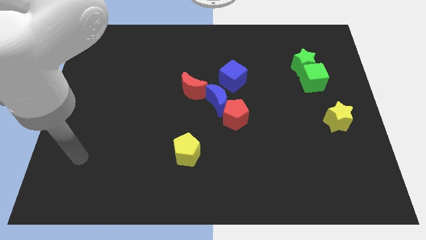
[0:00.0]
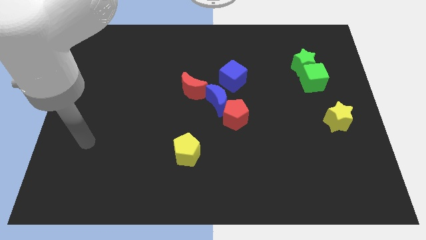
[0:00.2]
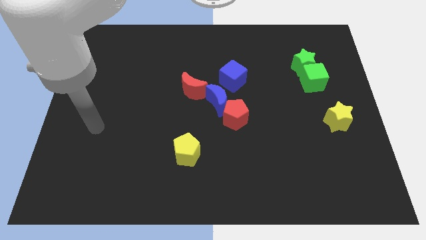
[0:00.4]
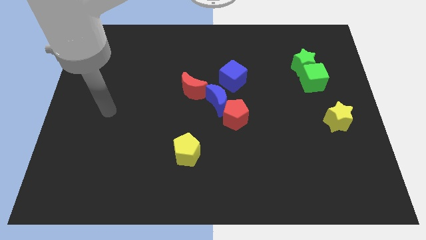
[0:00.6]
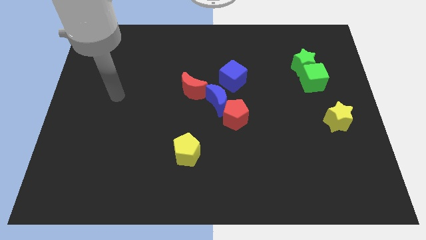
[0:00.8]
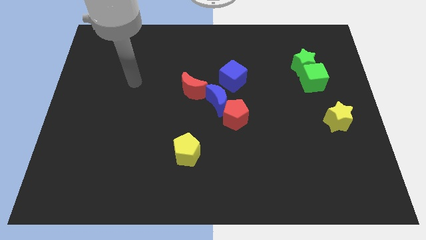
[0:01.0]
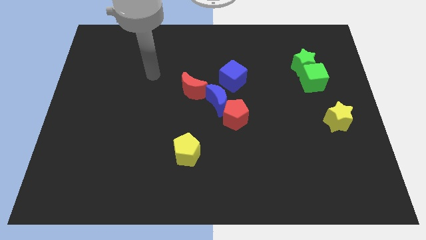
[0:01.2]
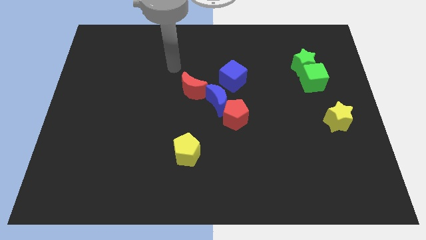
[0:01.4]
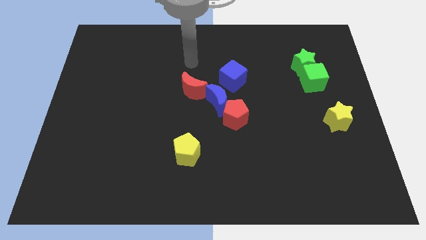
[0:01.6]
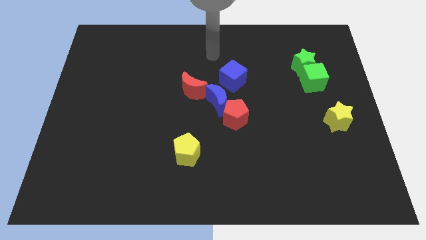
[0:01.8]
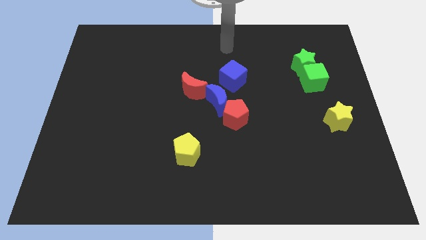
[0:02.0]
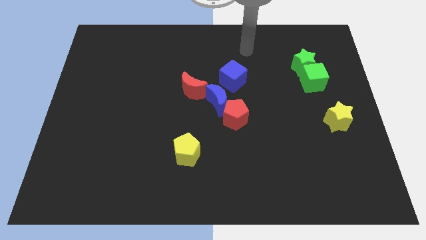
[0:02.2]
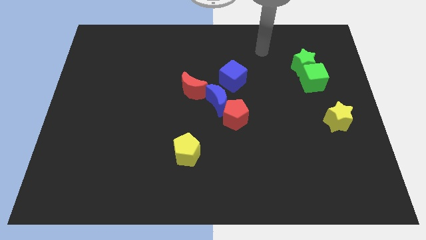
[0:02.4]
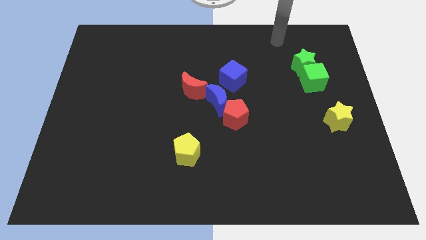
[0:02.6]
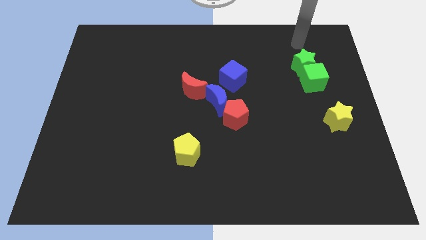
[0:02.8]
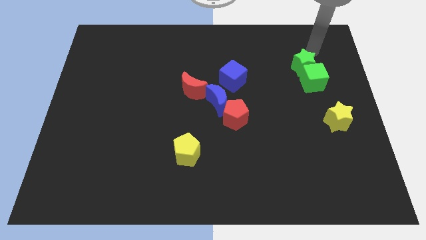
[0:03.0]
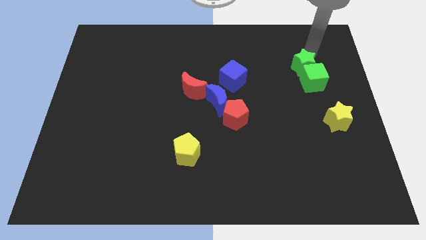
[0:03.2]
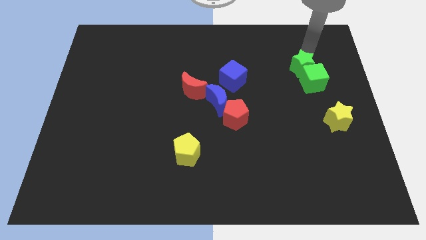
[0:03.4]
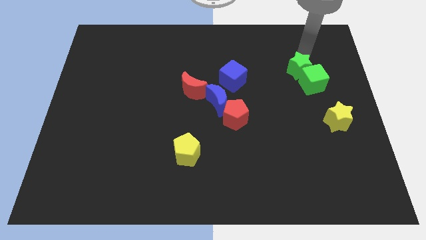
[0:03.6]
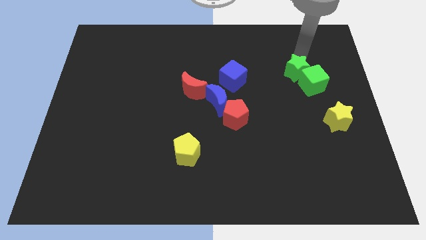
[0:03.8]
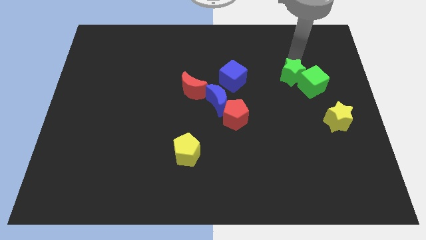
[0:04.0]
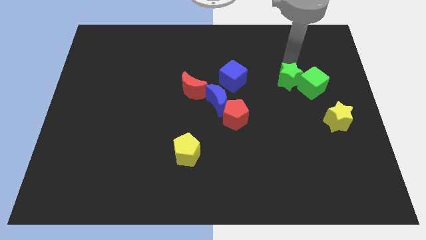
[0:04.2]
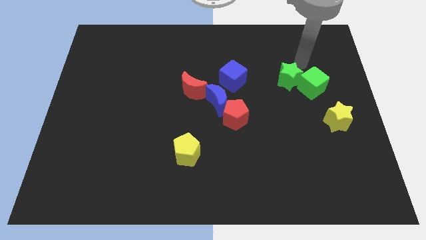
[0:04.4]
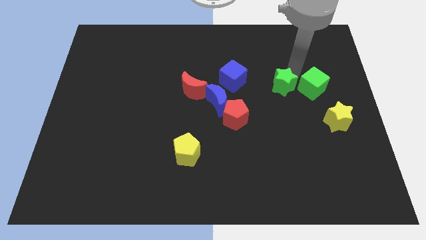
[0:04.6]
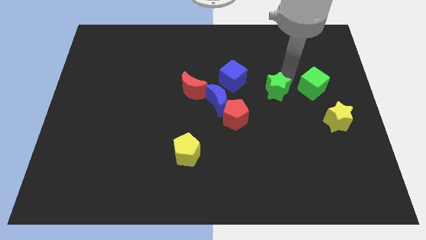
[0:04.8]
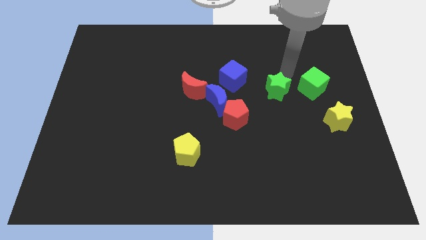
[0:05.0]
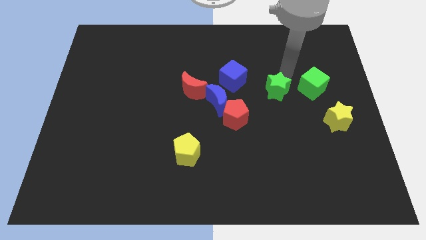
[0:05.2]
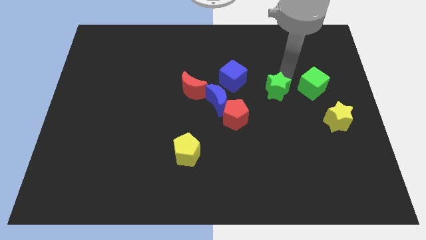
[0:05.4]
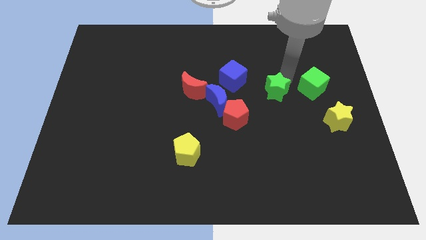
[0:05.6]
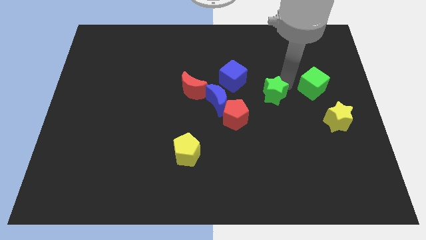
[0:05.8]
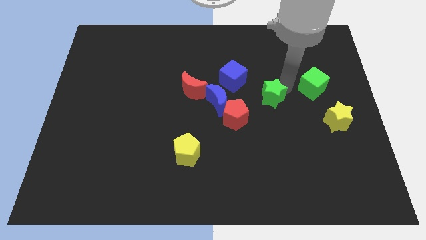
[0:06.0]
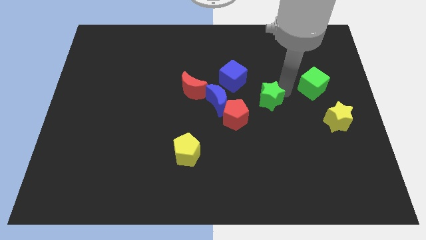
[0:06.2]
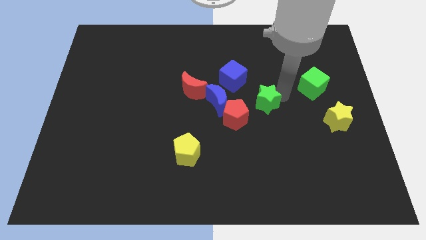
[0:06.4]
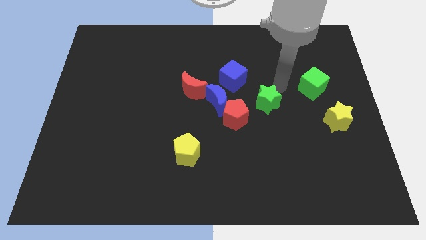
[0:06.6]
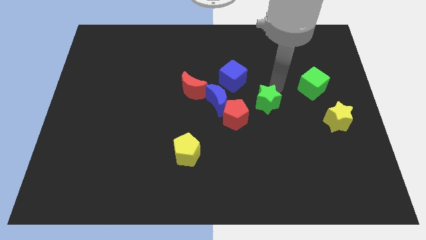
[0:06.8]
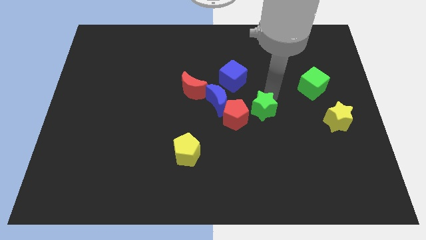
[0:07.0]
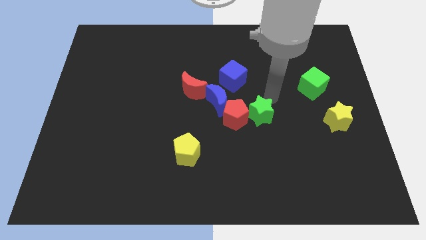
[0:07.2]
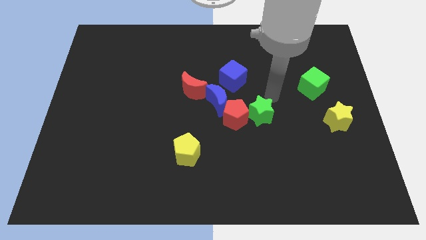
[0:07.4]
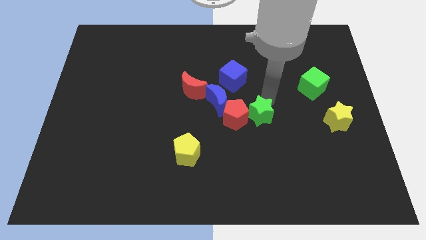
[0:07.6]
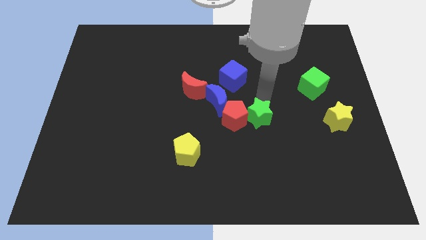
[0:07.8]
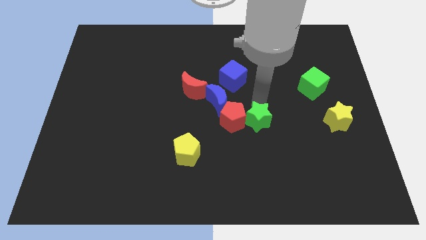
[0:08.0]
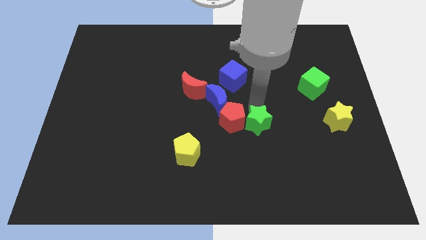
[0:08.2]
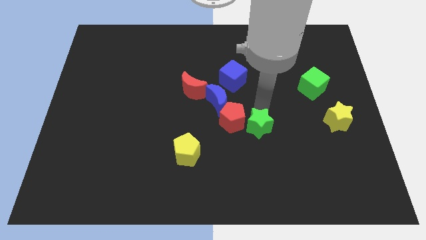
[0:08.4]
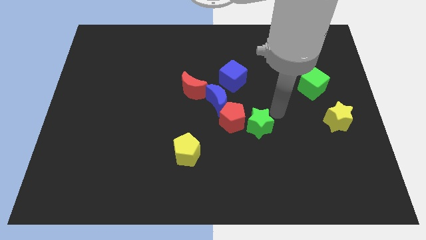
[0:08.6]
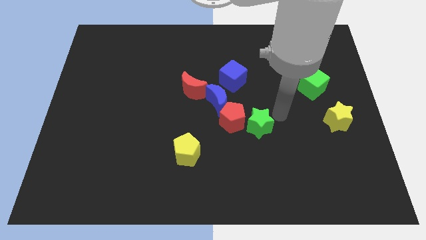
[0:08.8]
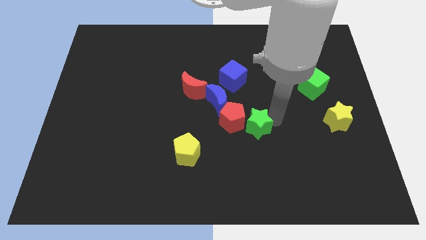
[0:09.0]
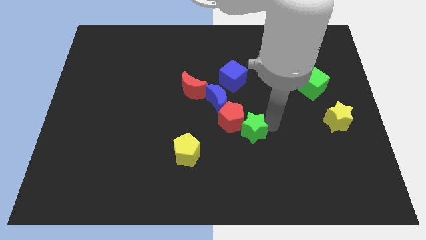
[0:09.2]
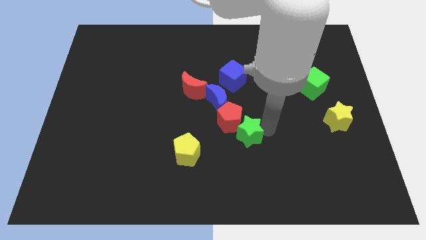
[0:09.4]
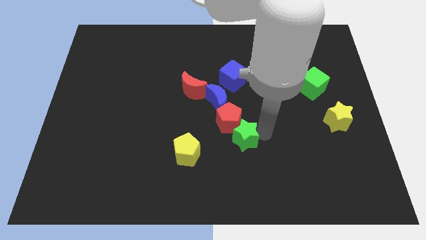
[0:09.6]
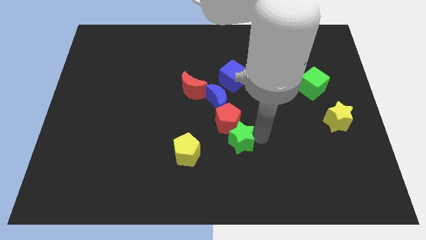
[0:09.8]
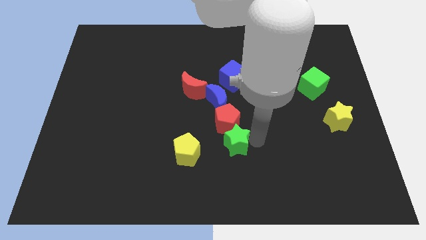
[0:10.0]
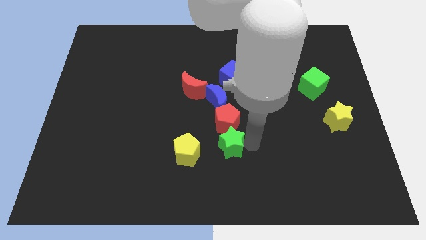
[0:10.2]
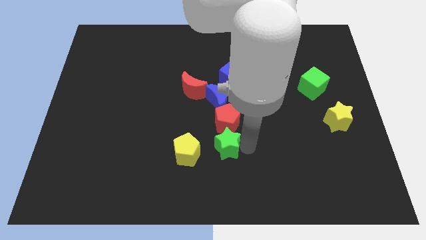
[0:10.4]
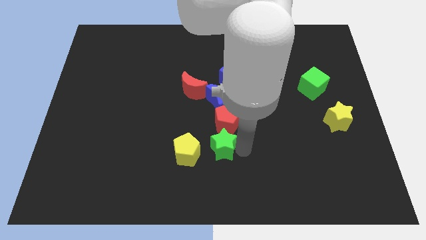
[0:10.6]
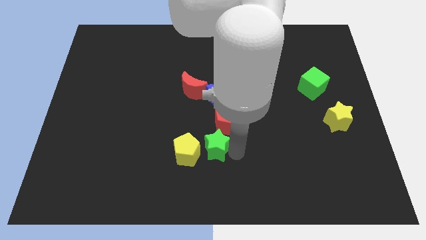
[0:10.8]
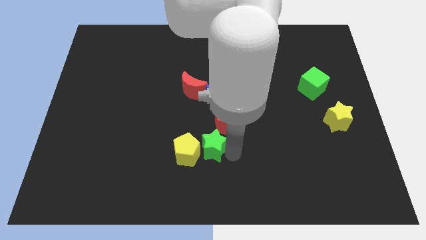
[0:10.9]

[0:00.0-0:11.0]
move the green star towards the yellow pentagon

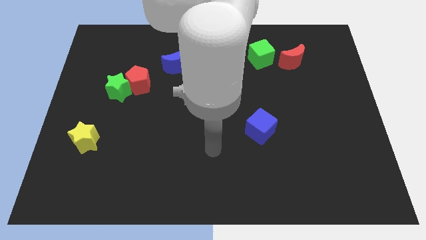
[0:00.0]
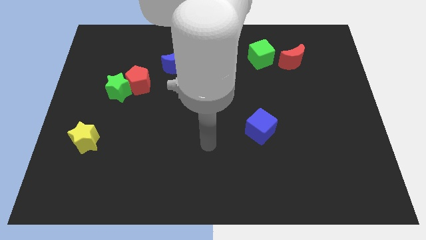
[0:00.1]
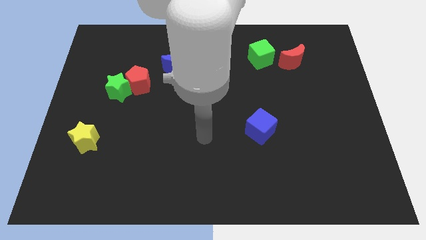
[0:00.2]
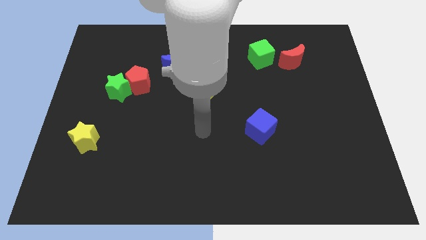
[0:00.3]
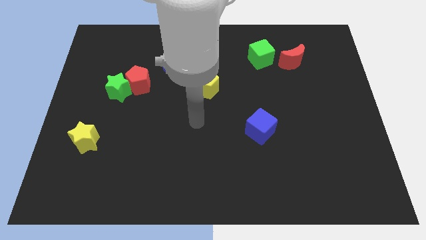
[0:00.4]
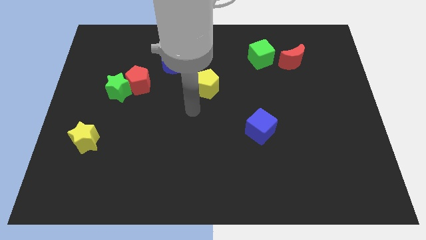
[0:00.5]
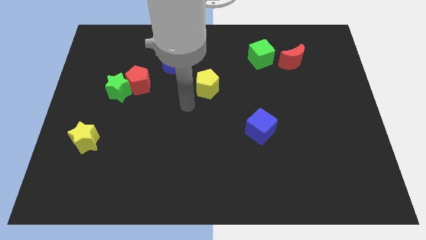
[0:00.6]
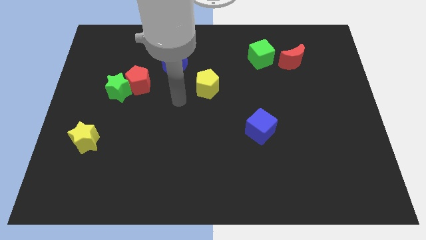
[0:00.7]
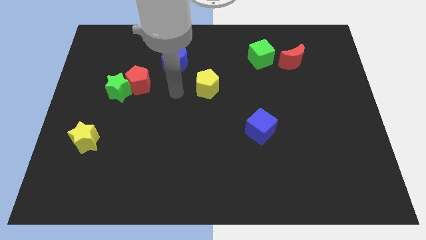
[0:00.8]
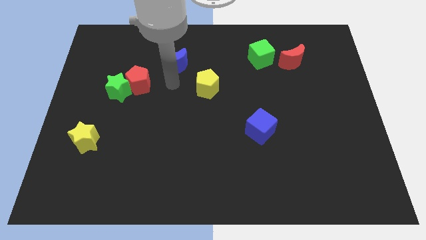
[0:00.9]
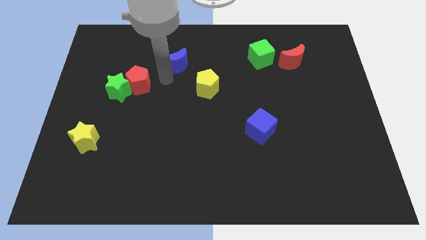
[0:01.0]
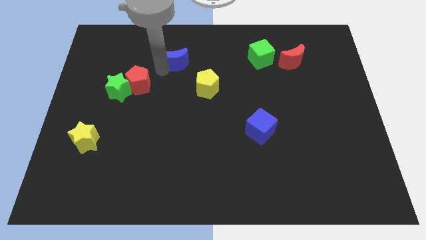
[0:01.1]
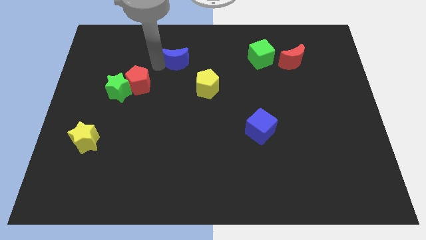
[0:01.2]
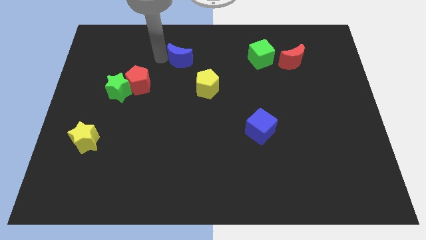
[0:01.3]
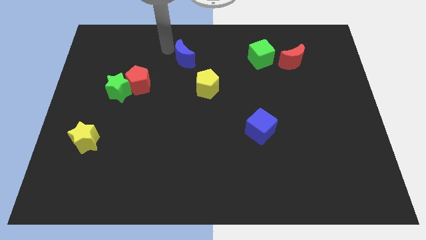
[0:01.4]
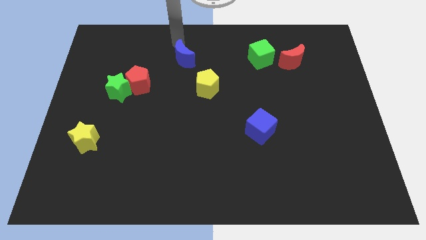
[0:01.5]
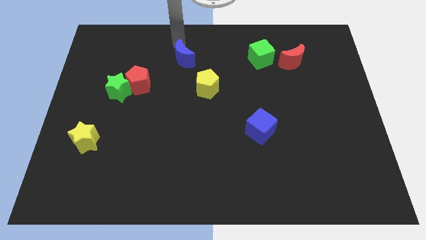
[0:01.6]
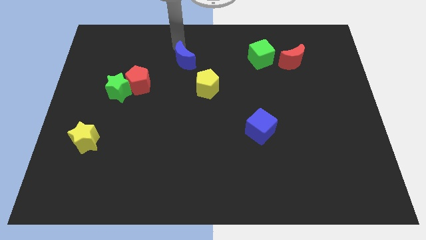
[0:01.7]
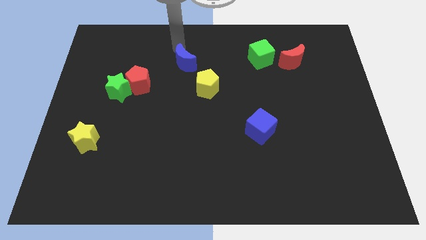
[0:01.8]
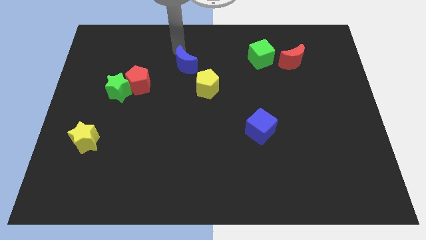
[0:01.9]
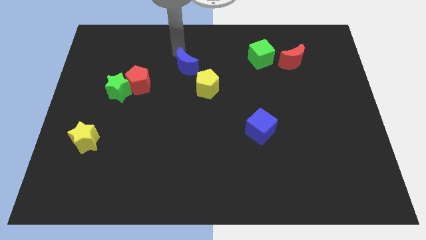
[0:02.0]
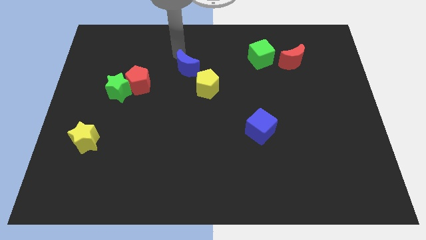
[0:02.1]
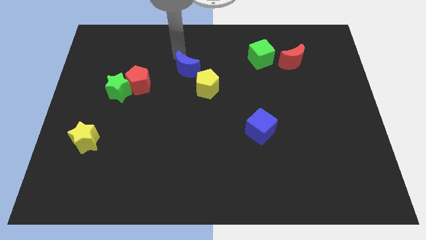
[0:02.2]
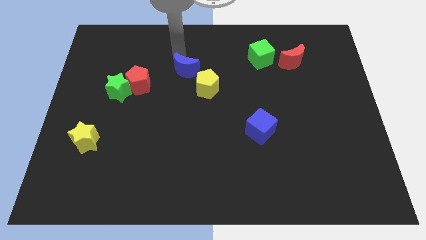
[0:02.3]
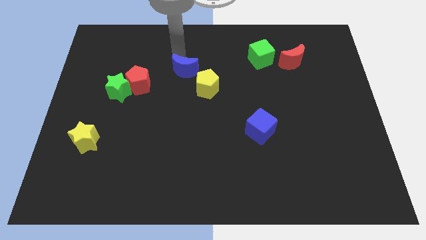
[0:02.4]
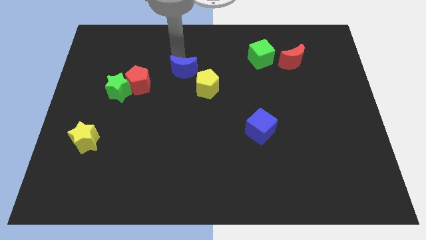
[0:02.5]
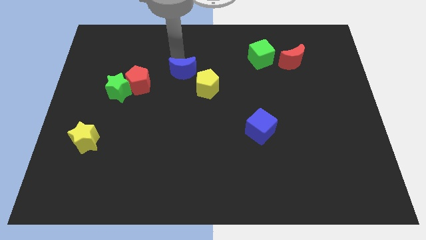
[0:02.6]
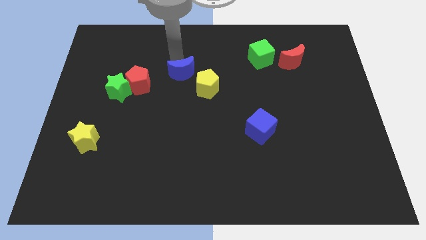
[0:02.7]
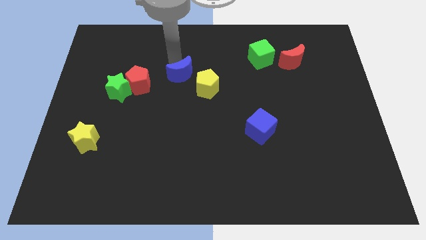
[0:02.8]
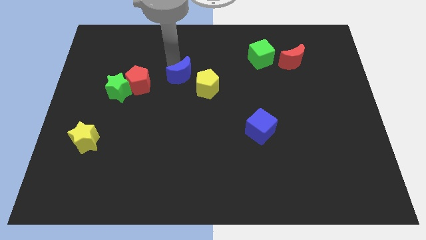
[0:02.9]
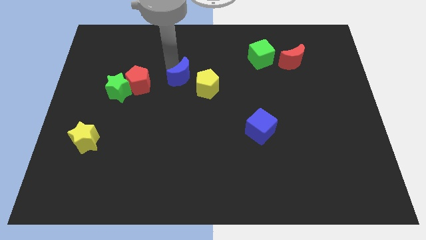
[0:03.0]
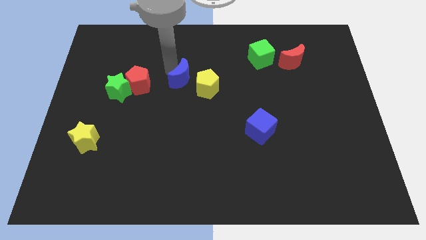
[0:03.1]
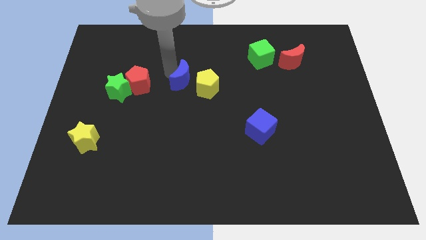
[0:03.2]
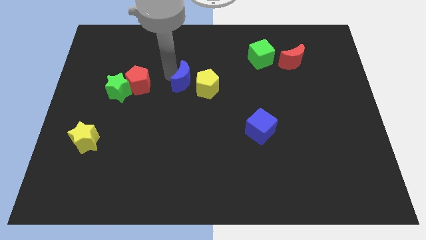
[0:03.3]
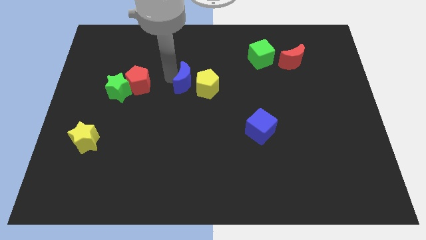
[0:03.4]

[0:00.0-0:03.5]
move the blue moon to the yellow pentagon
